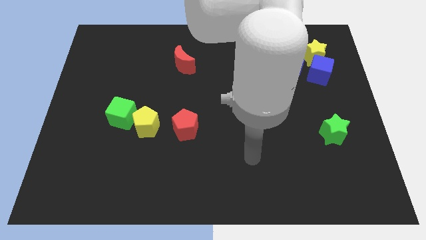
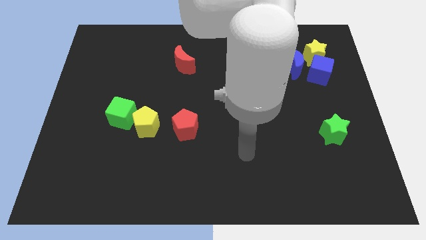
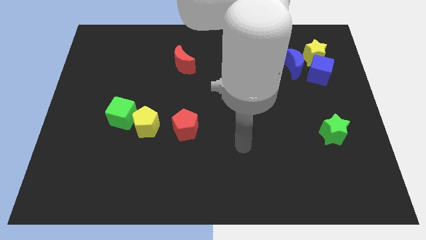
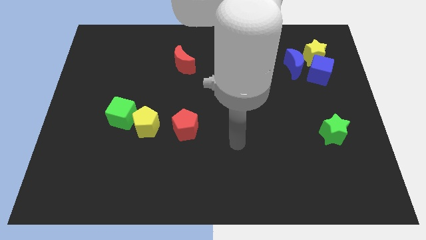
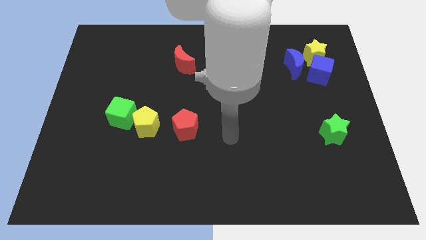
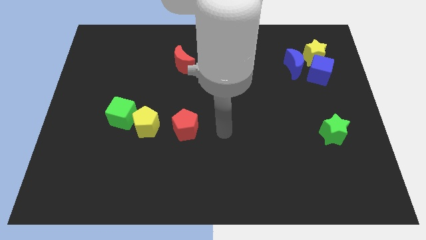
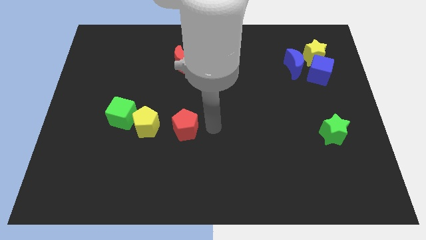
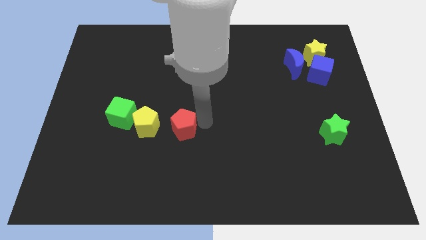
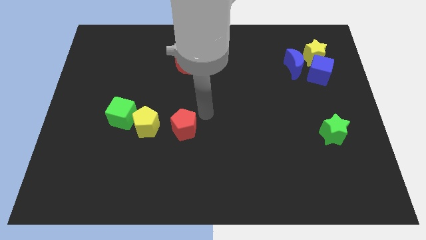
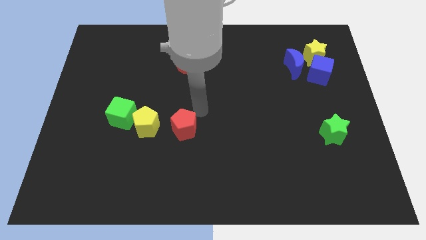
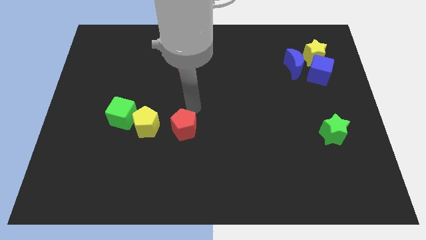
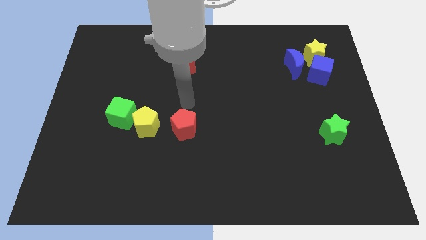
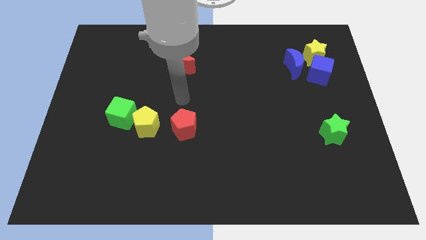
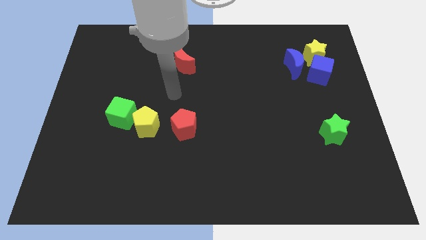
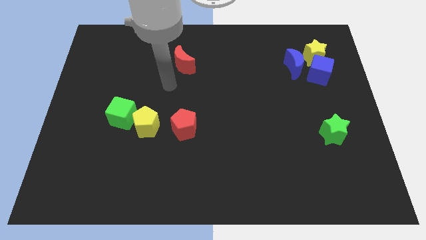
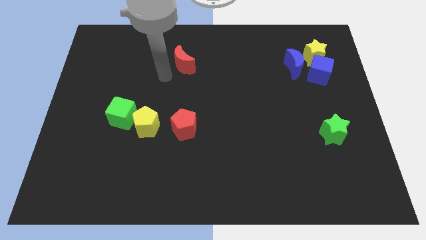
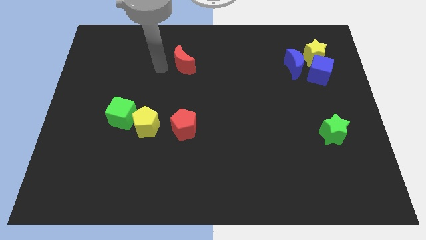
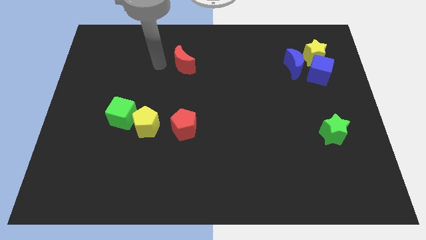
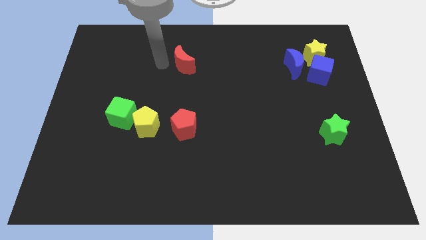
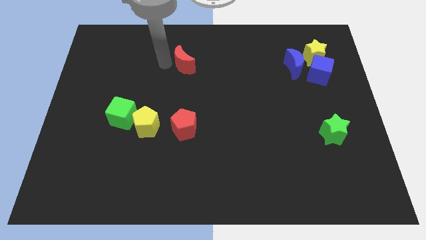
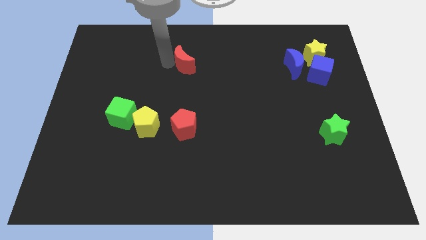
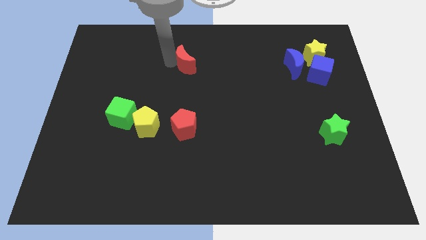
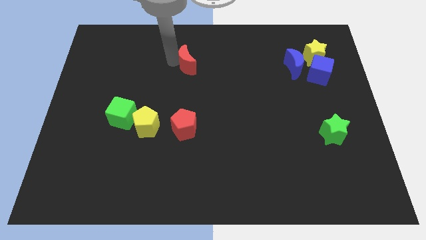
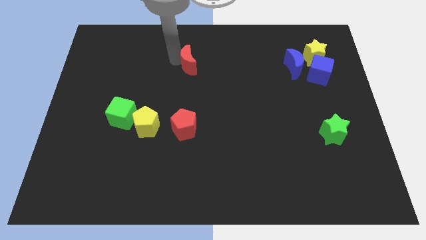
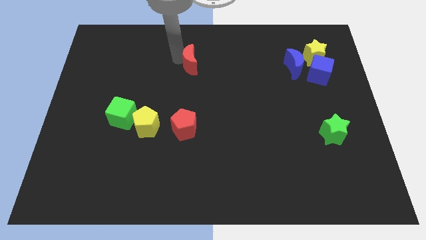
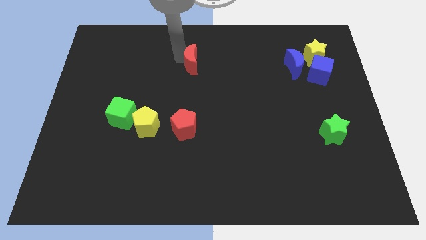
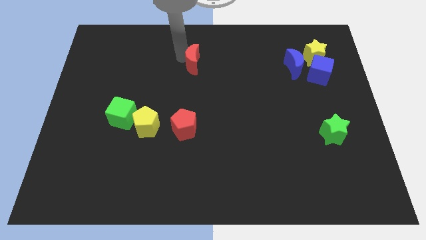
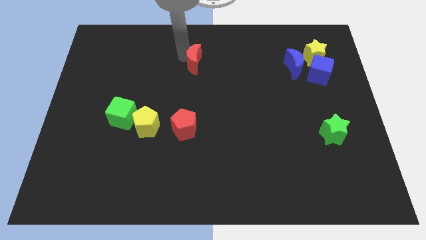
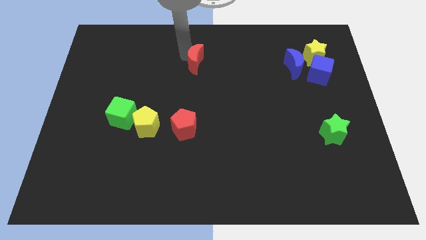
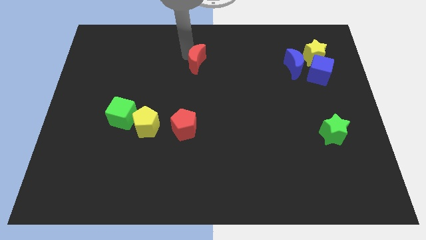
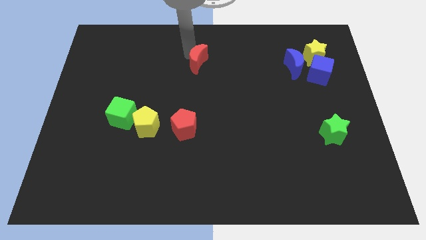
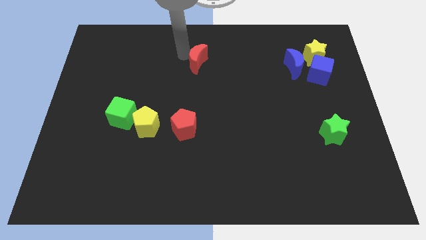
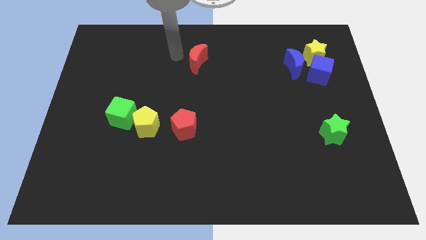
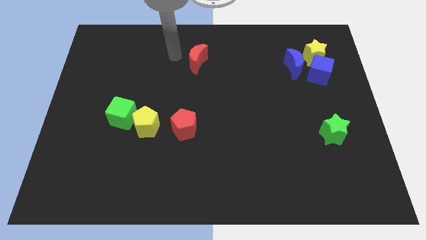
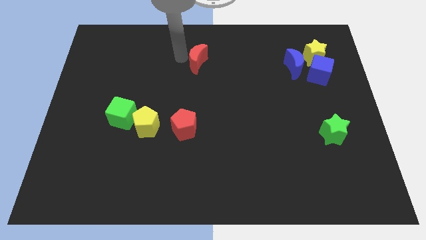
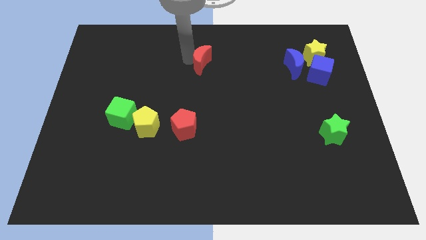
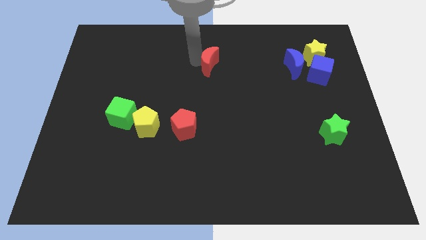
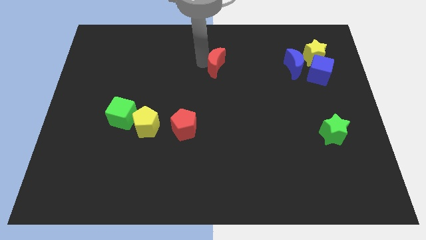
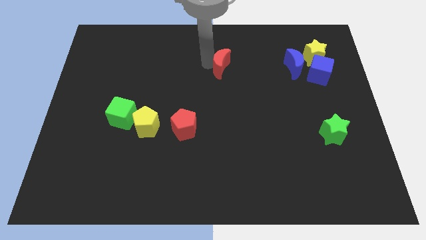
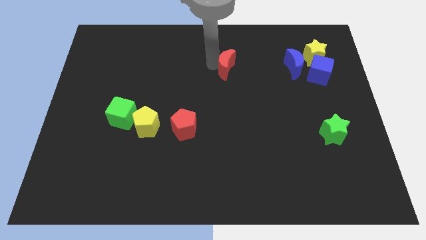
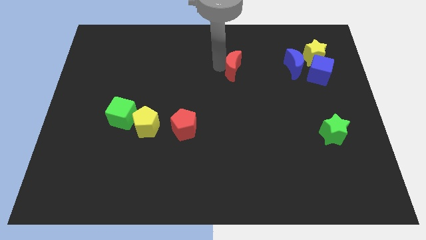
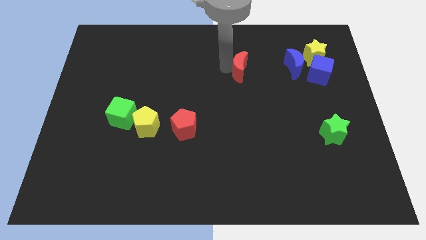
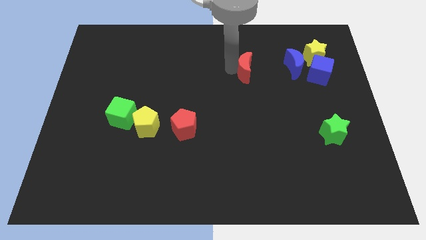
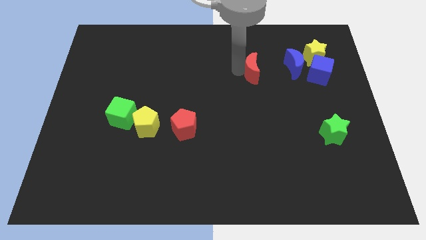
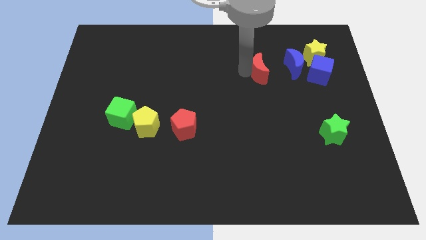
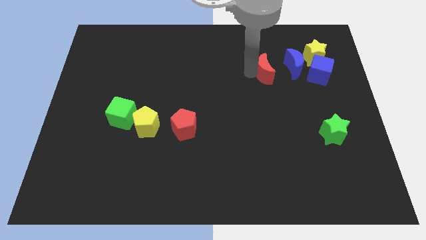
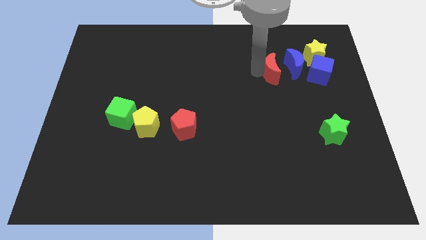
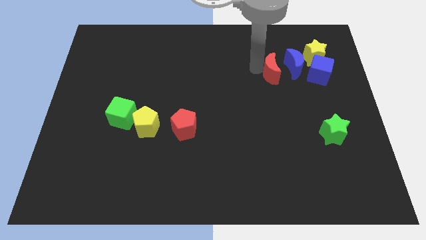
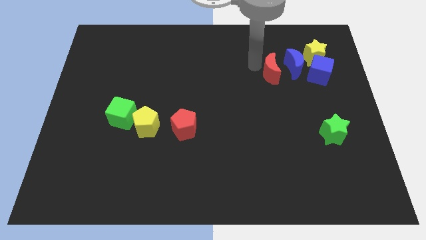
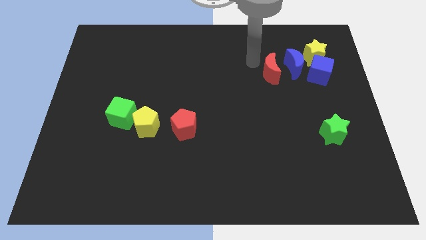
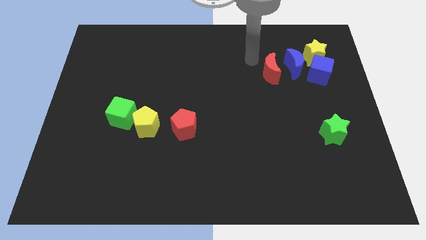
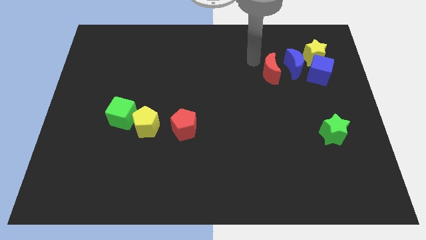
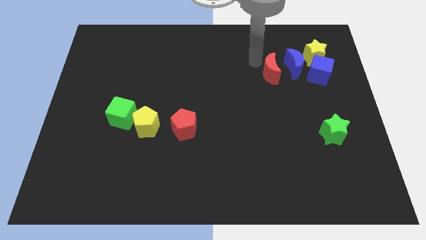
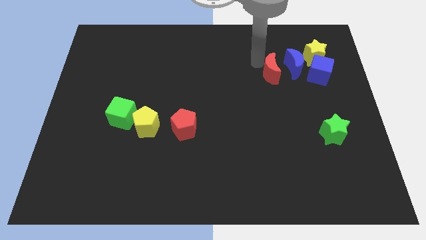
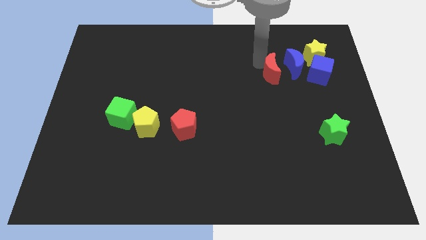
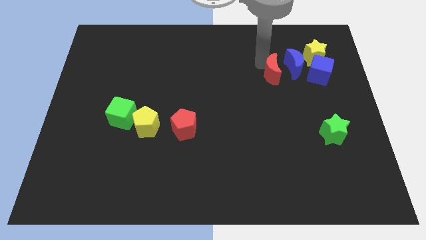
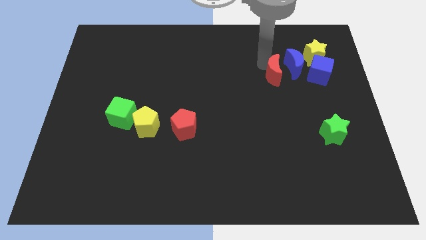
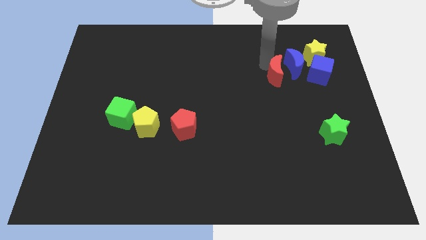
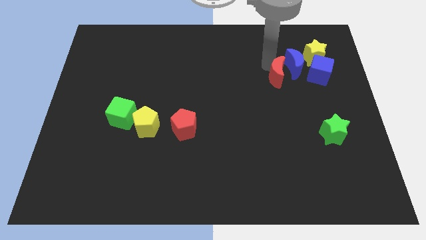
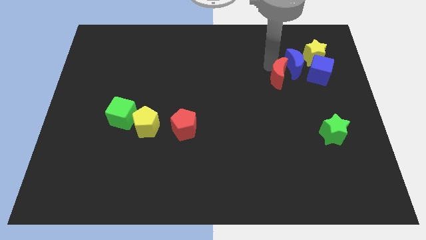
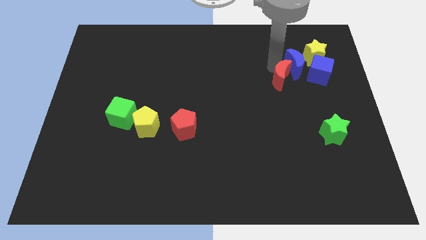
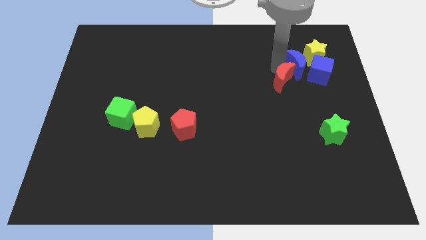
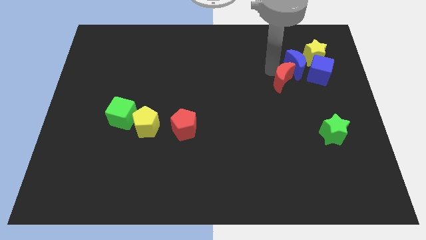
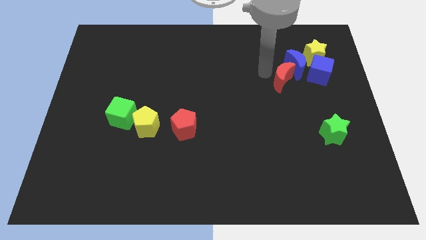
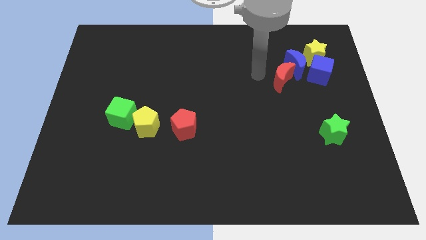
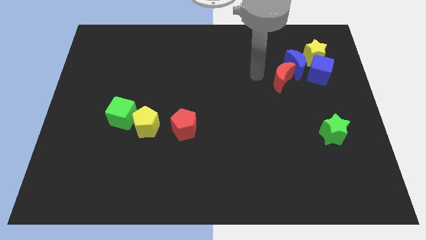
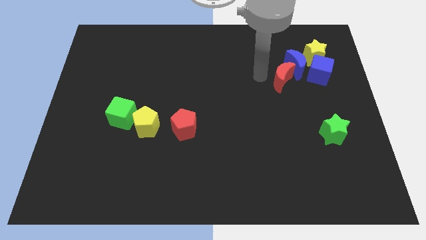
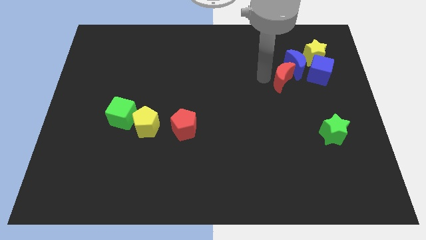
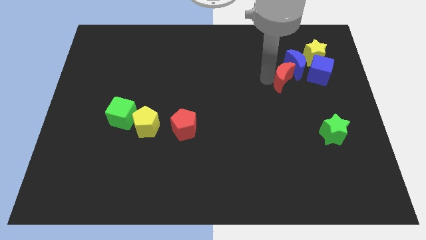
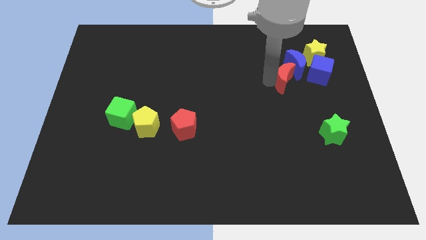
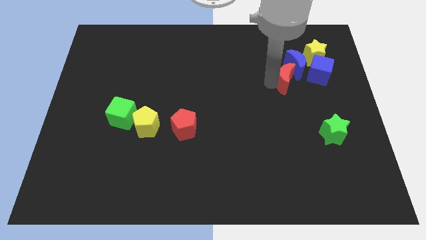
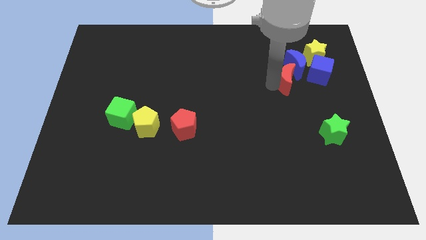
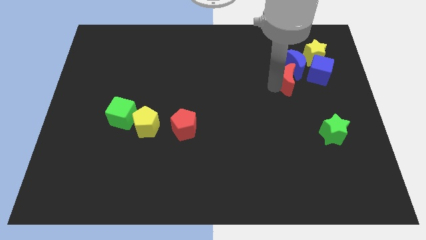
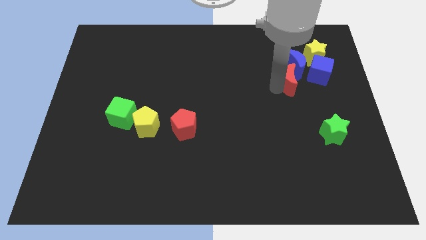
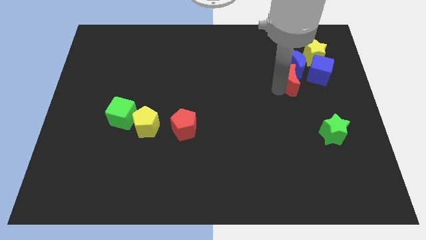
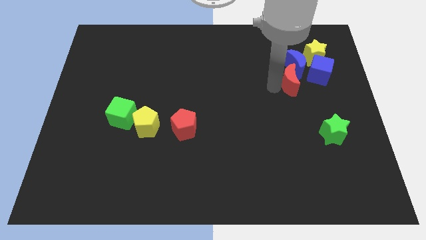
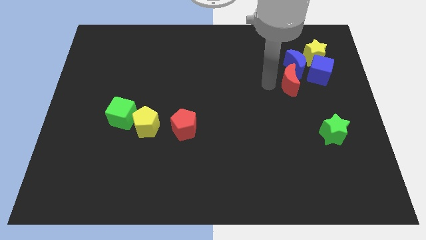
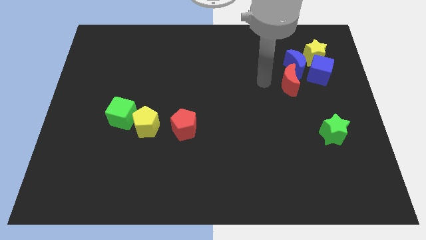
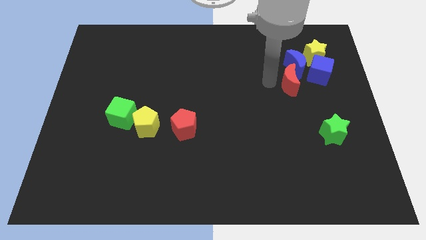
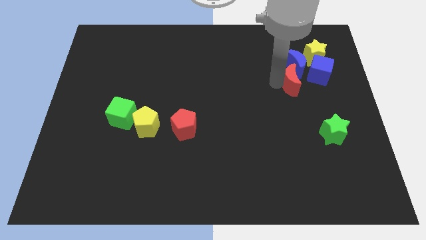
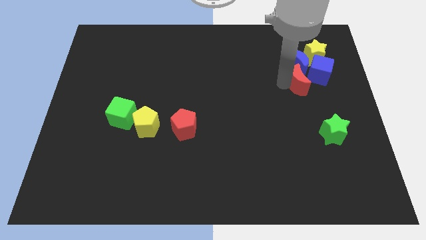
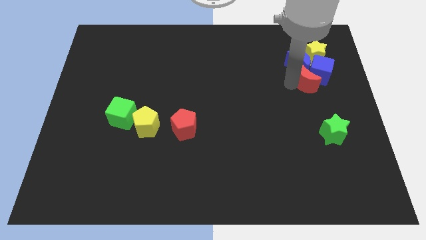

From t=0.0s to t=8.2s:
slide the red moon to the bottom side of the yellow star
